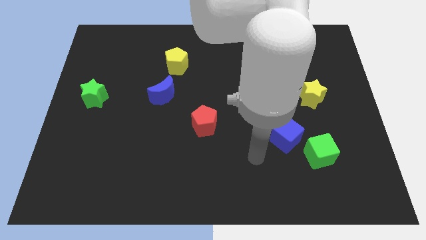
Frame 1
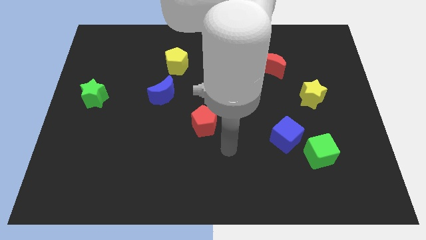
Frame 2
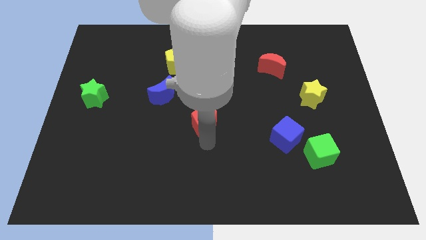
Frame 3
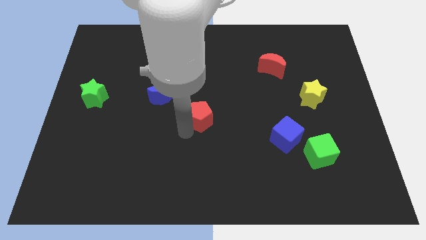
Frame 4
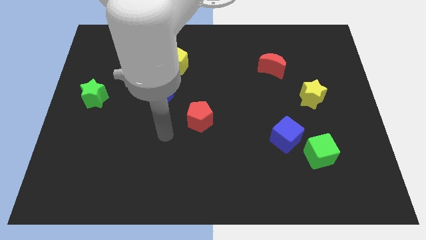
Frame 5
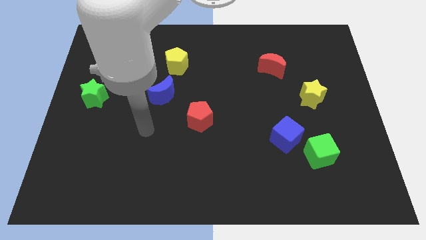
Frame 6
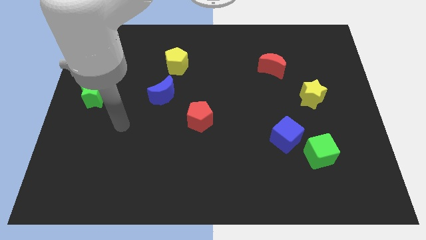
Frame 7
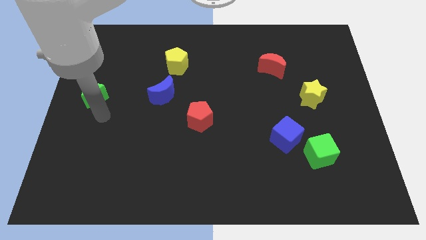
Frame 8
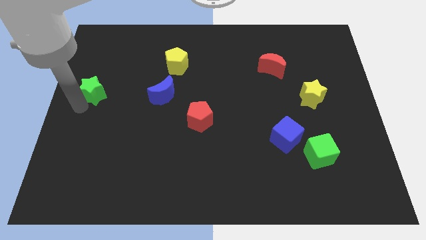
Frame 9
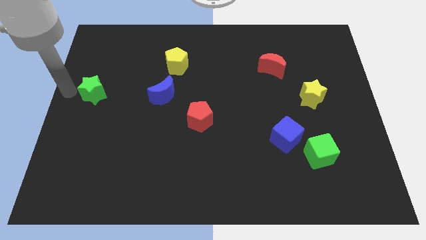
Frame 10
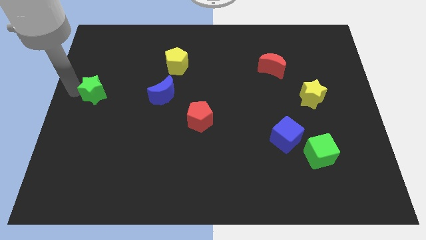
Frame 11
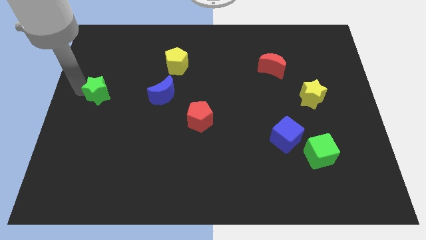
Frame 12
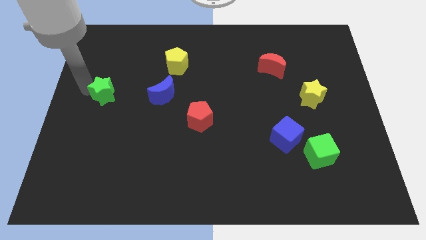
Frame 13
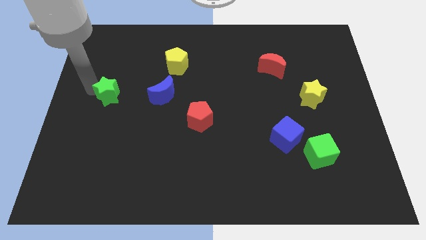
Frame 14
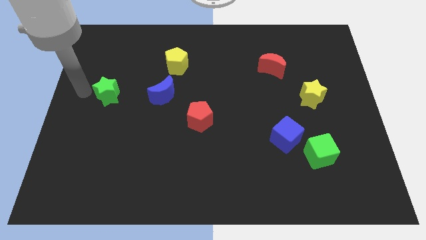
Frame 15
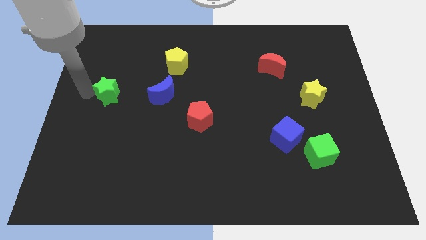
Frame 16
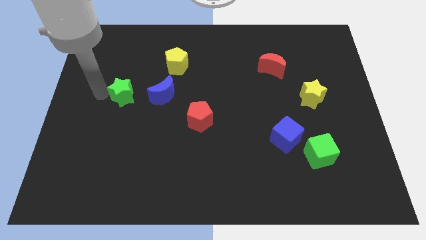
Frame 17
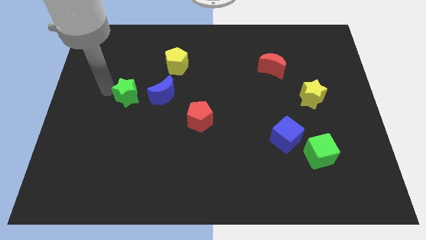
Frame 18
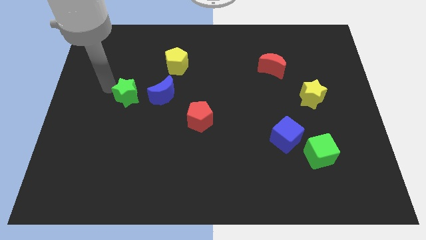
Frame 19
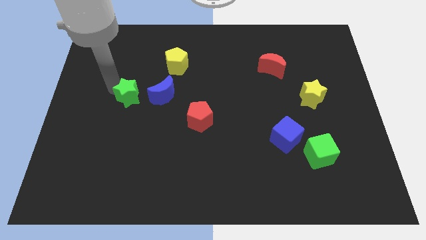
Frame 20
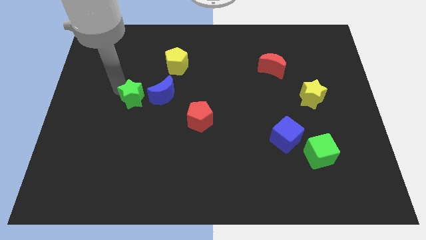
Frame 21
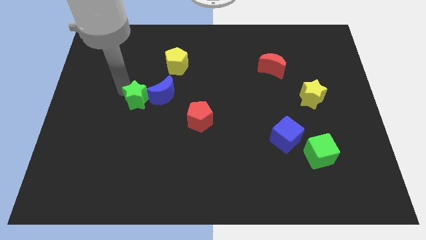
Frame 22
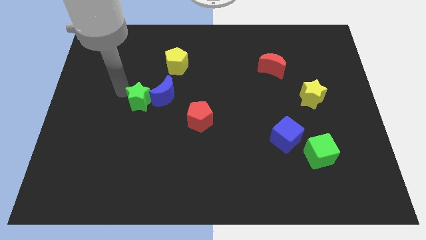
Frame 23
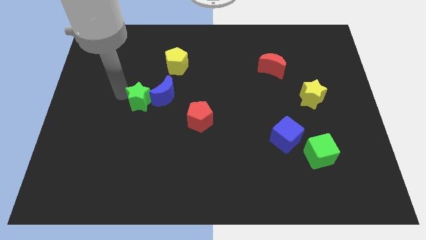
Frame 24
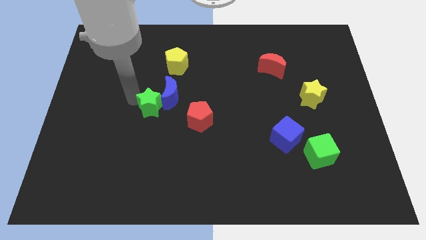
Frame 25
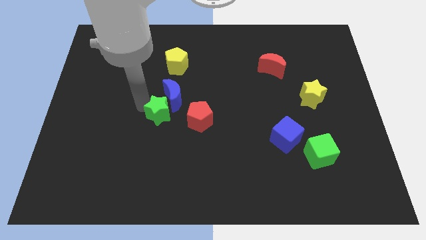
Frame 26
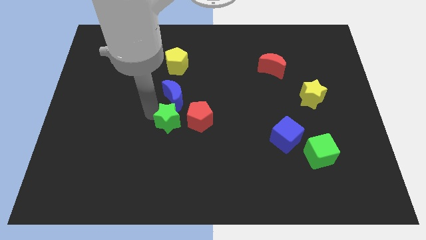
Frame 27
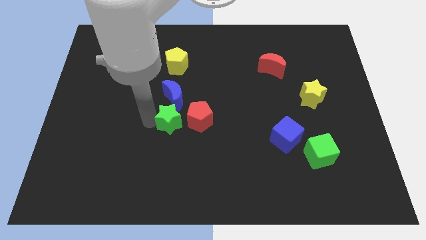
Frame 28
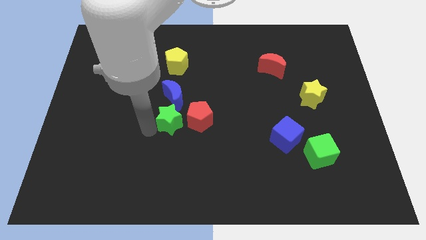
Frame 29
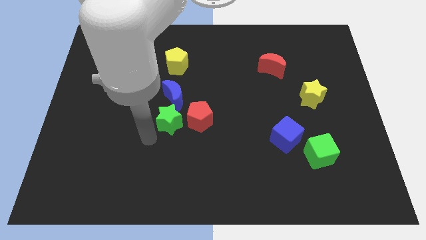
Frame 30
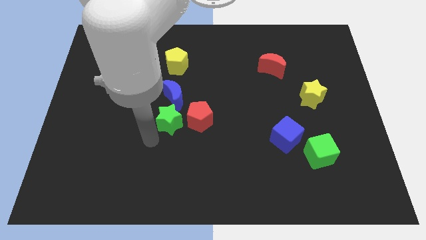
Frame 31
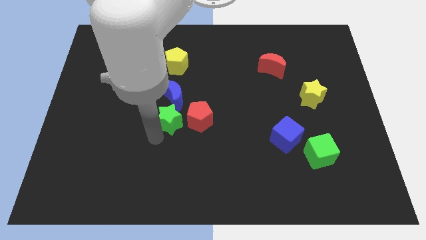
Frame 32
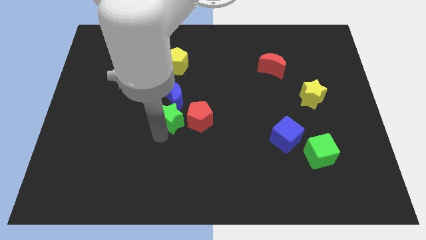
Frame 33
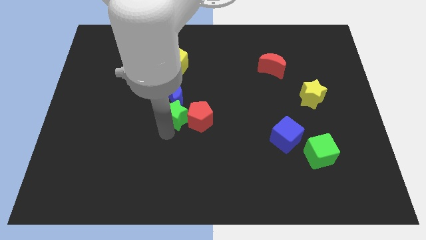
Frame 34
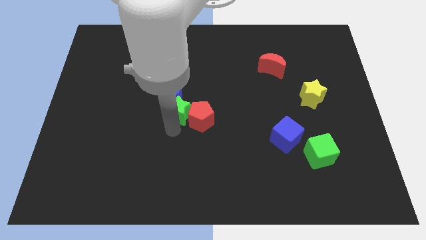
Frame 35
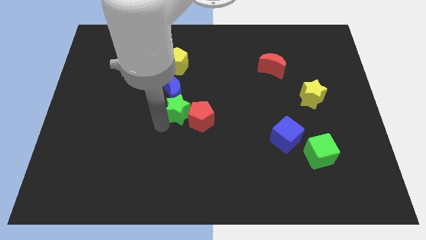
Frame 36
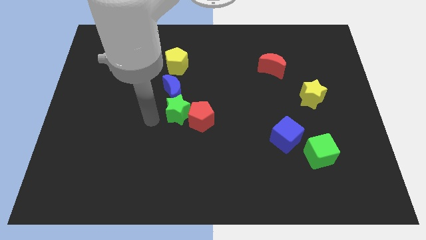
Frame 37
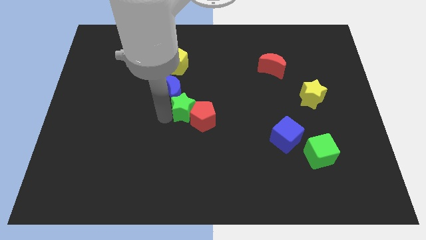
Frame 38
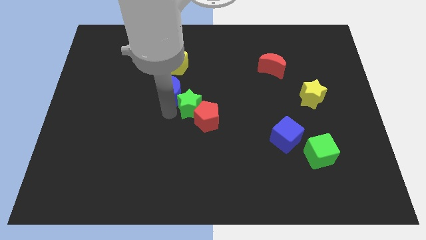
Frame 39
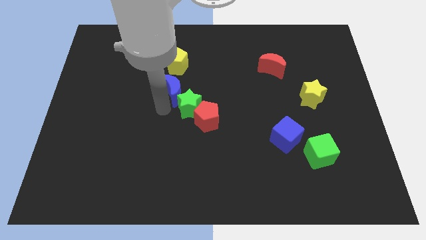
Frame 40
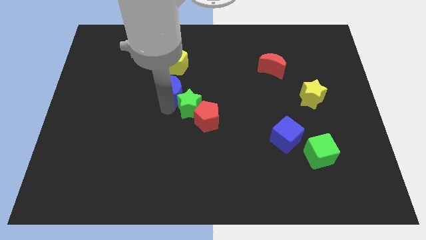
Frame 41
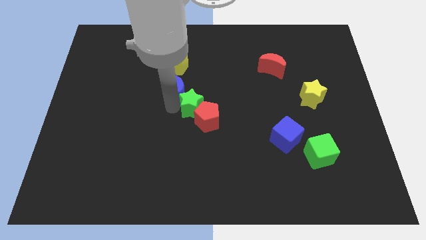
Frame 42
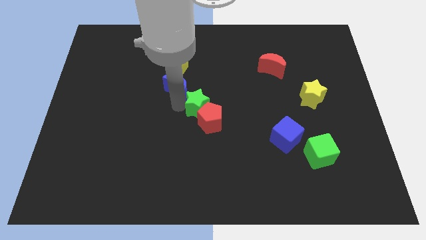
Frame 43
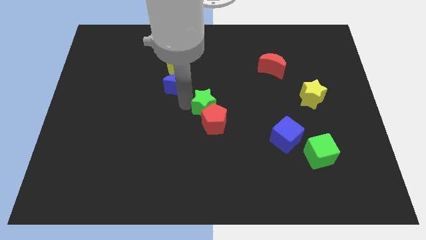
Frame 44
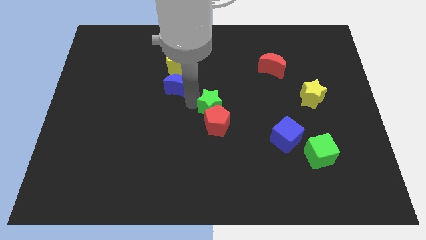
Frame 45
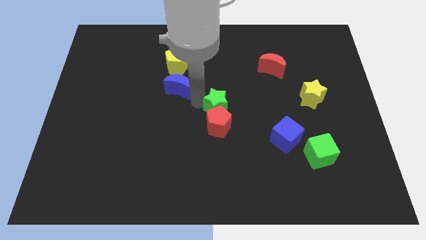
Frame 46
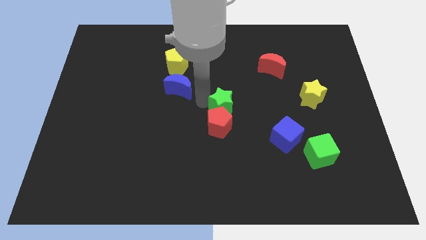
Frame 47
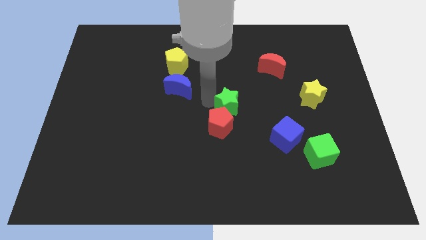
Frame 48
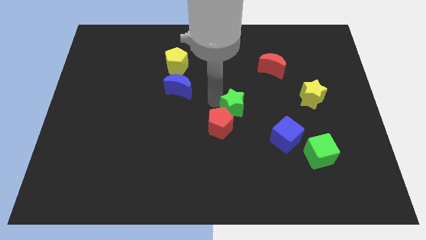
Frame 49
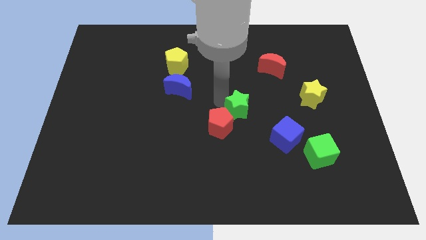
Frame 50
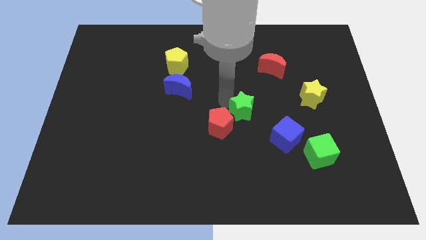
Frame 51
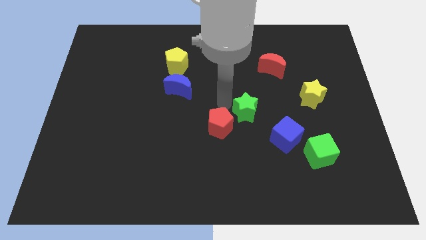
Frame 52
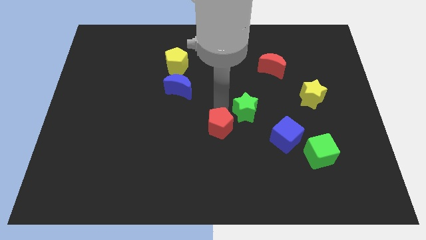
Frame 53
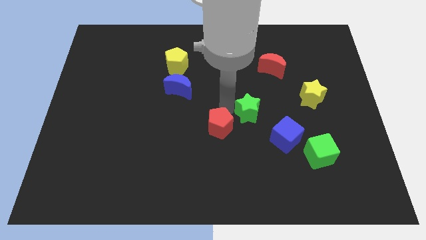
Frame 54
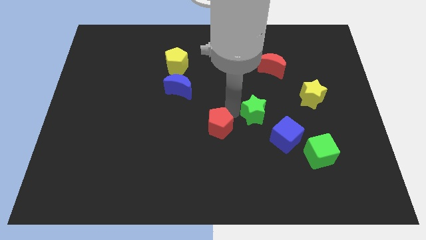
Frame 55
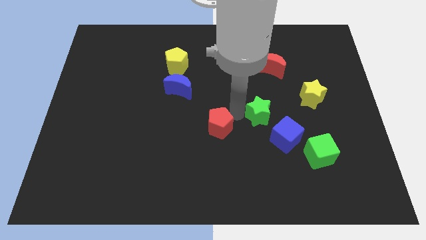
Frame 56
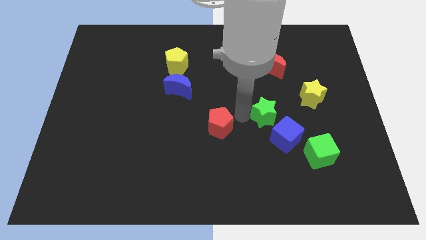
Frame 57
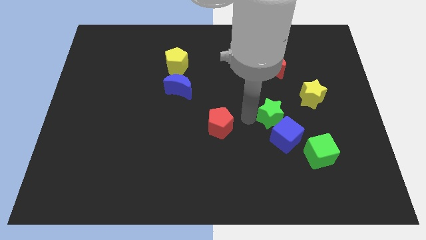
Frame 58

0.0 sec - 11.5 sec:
move the green star to the bottom left of the yellow star

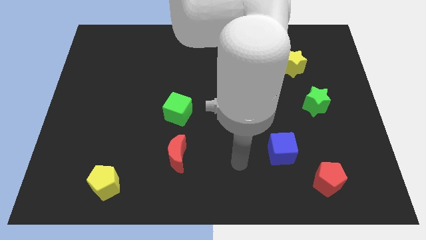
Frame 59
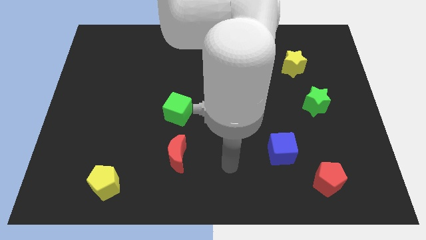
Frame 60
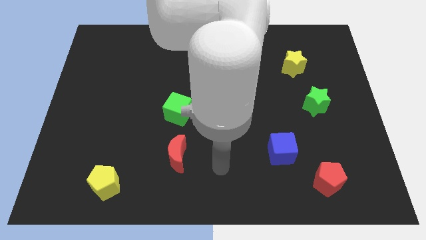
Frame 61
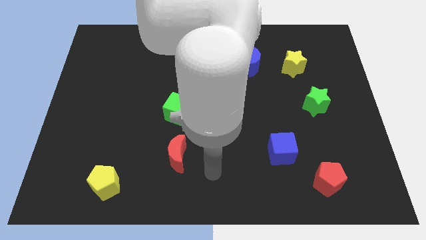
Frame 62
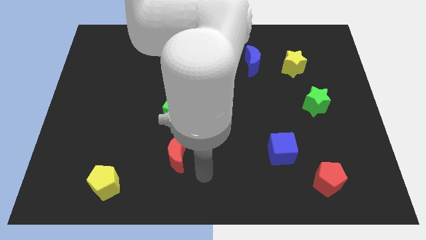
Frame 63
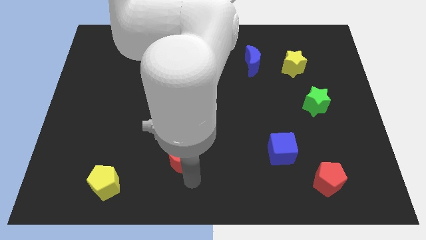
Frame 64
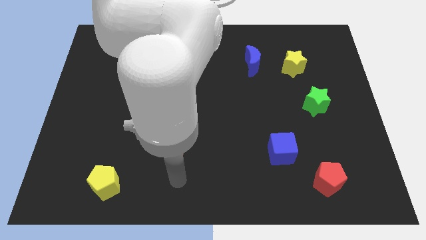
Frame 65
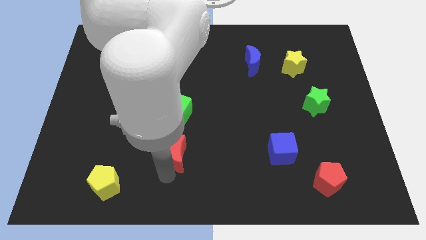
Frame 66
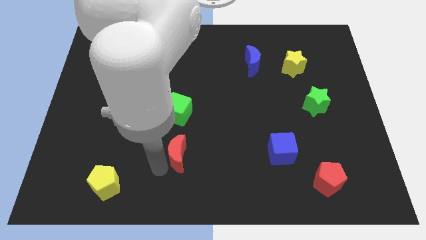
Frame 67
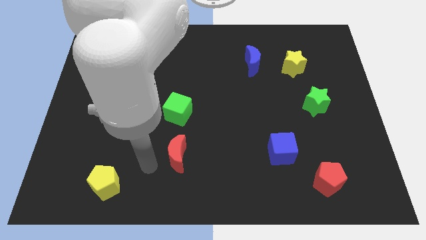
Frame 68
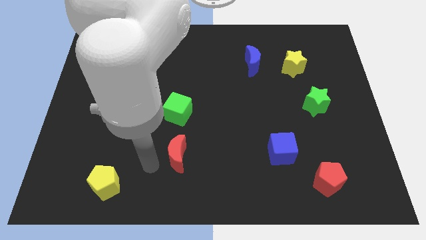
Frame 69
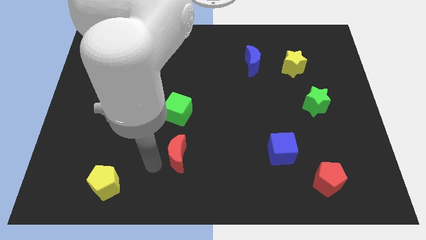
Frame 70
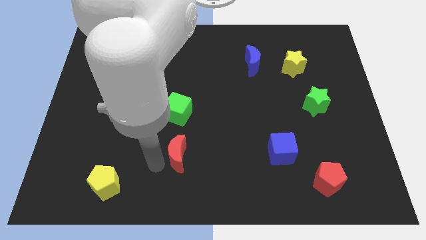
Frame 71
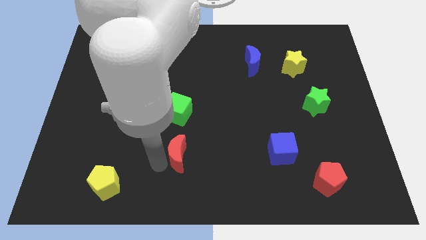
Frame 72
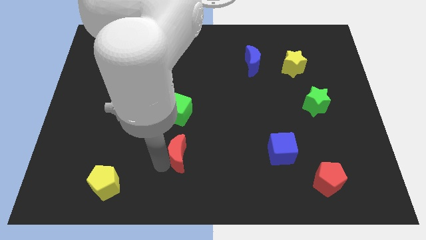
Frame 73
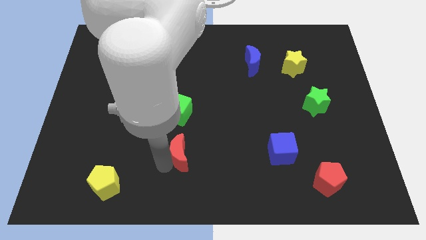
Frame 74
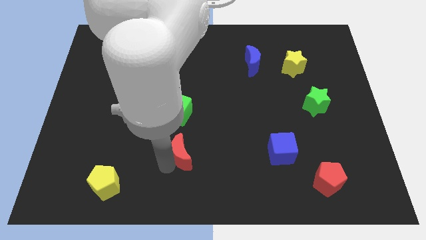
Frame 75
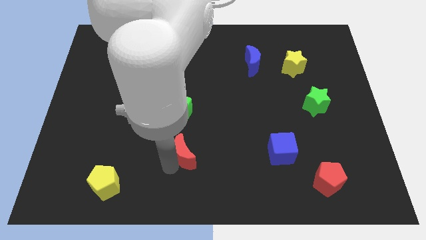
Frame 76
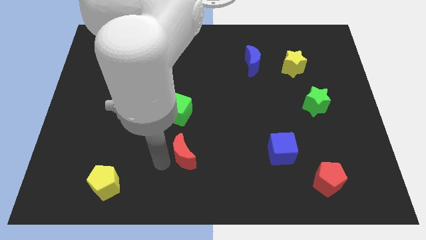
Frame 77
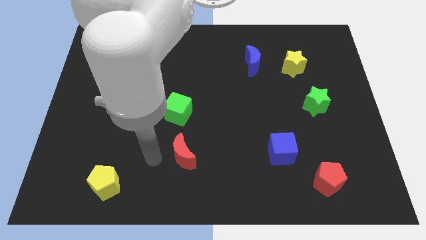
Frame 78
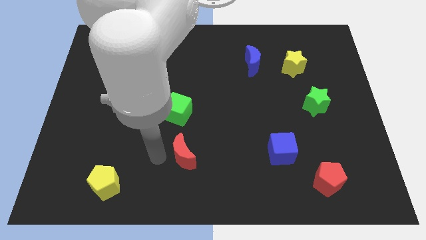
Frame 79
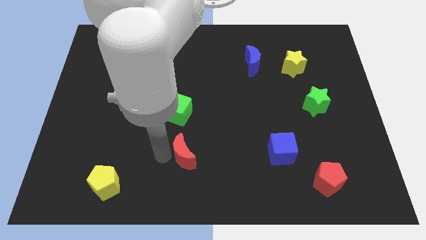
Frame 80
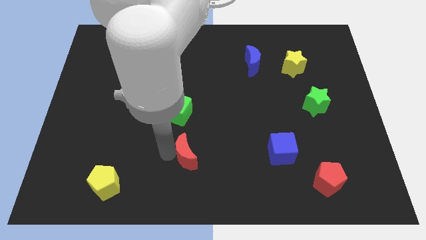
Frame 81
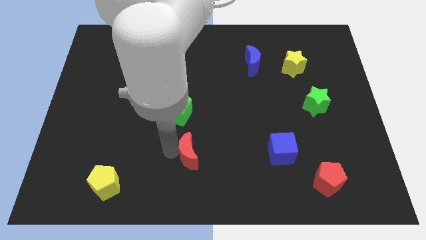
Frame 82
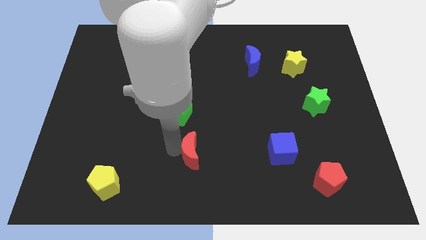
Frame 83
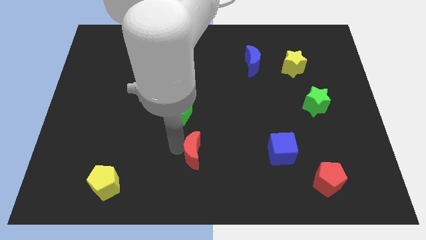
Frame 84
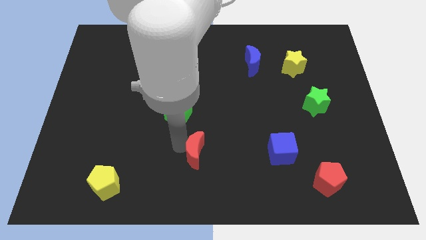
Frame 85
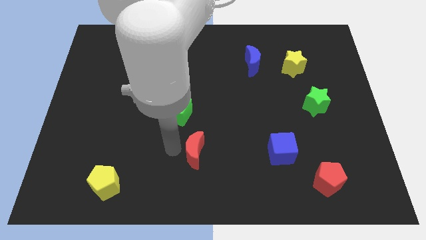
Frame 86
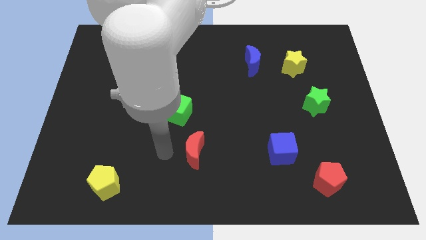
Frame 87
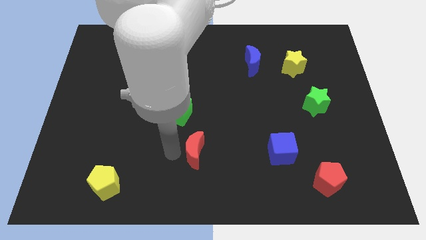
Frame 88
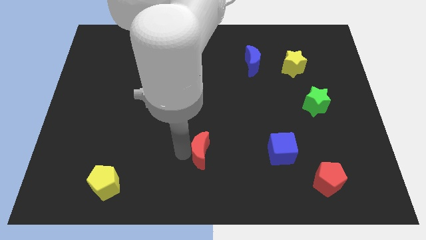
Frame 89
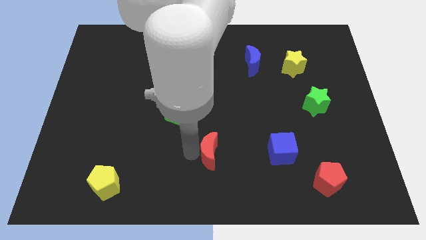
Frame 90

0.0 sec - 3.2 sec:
put the red moon to the left of the blue cube
